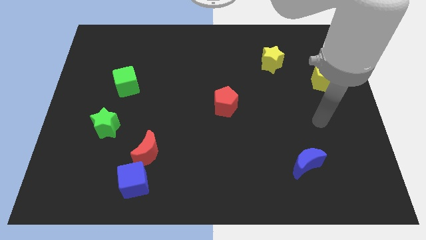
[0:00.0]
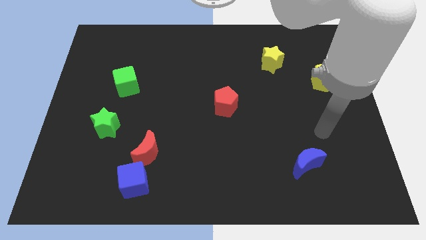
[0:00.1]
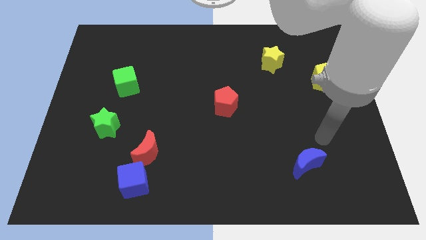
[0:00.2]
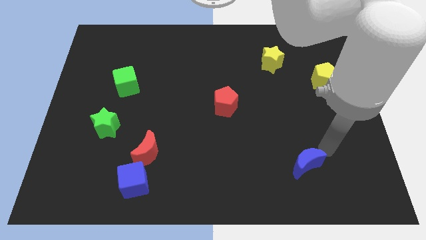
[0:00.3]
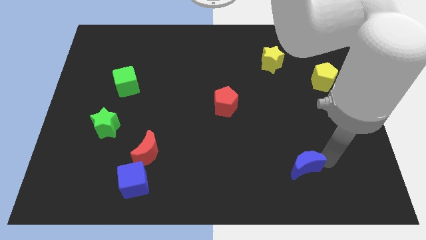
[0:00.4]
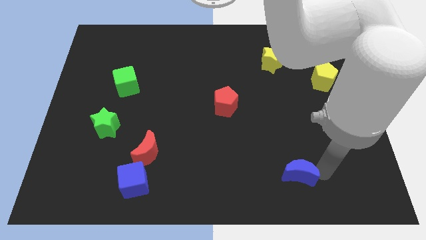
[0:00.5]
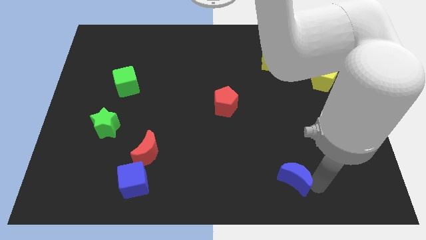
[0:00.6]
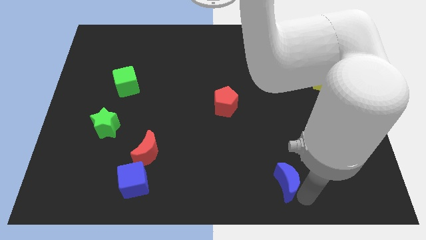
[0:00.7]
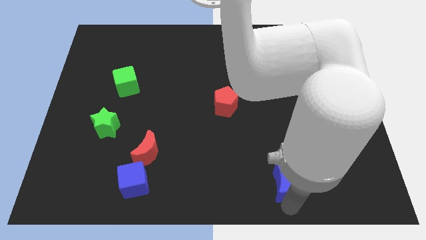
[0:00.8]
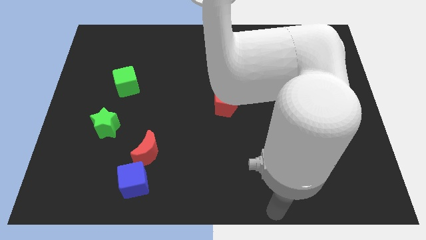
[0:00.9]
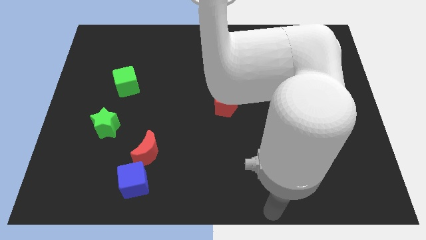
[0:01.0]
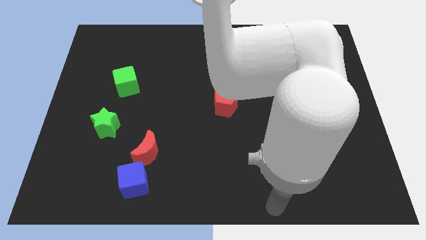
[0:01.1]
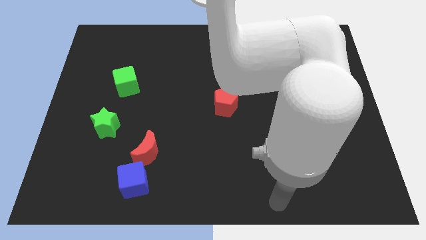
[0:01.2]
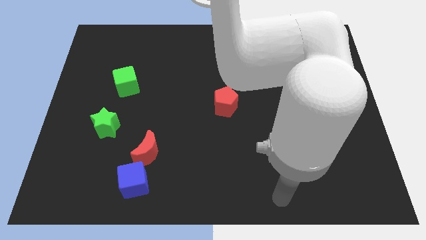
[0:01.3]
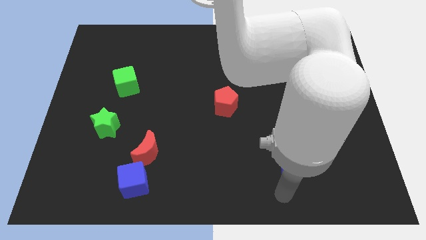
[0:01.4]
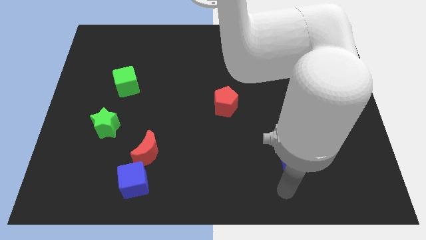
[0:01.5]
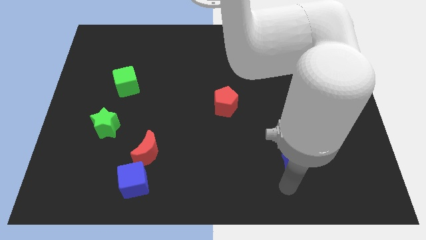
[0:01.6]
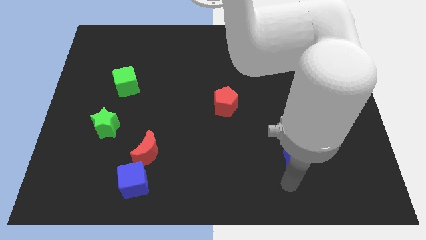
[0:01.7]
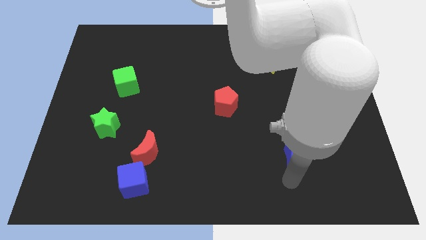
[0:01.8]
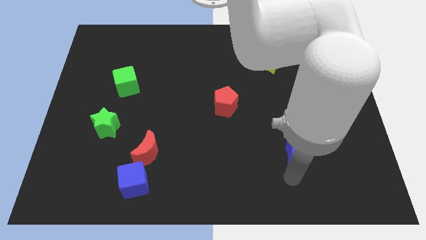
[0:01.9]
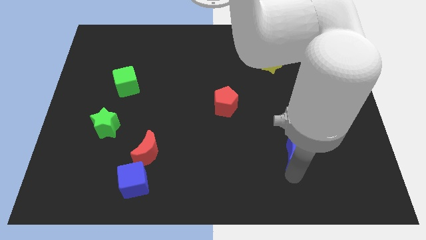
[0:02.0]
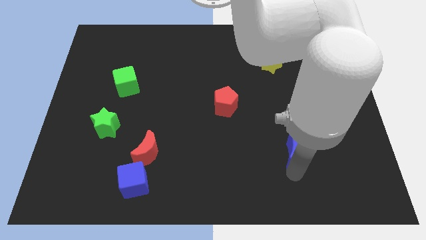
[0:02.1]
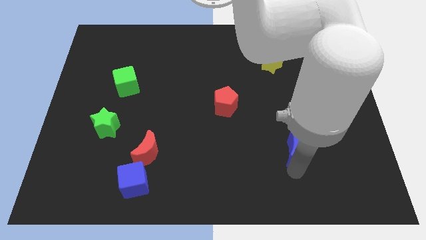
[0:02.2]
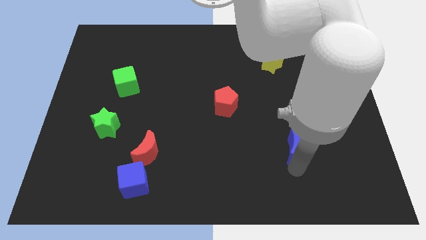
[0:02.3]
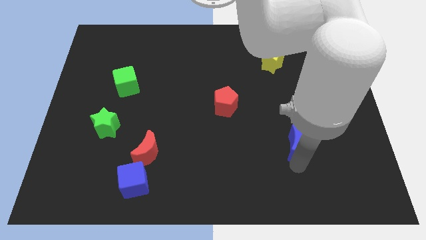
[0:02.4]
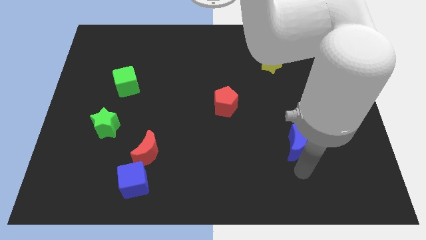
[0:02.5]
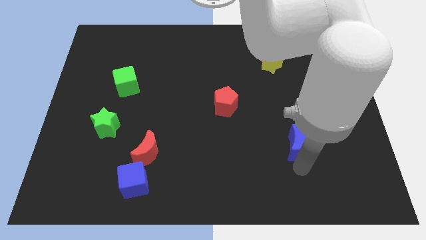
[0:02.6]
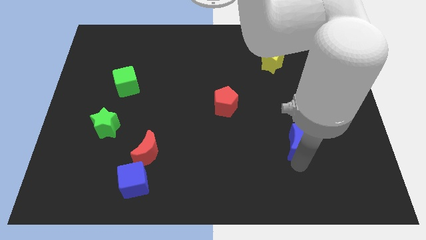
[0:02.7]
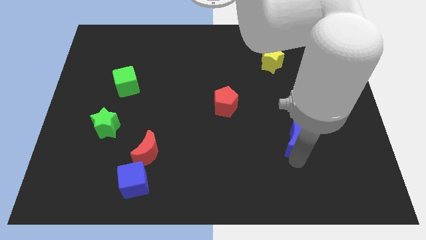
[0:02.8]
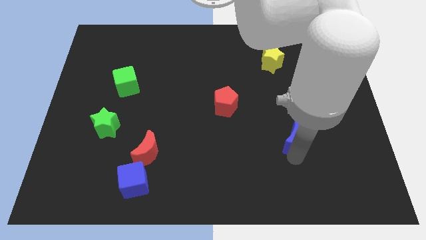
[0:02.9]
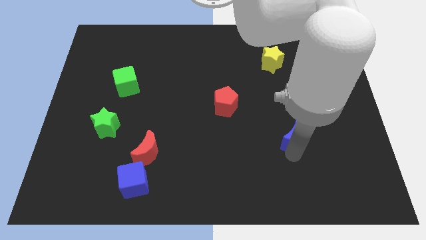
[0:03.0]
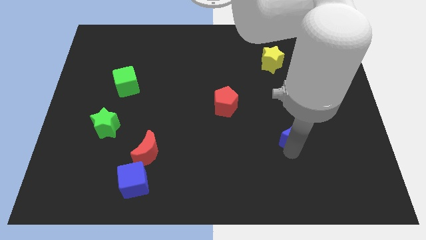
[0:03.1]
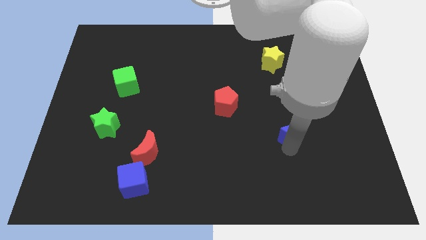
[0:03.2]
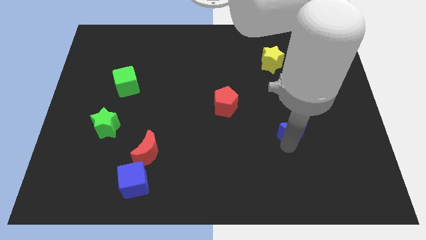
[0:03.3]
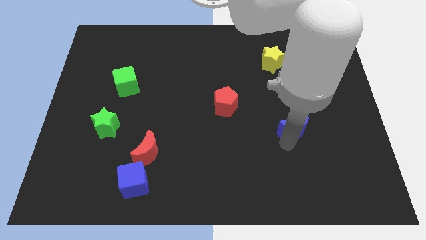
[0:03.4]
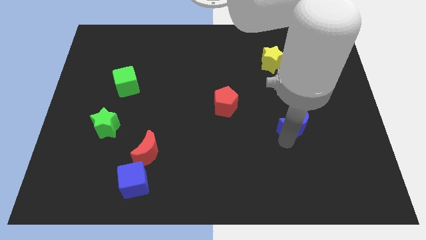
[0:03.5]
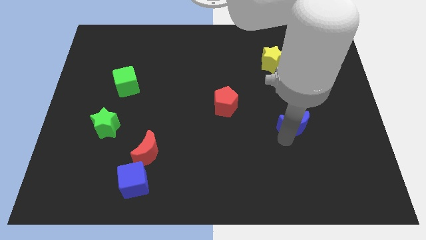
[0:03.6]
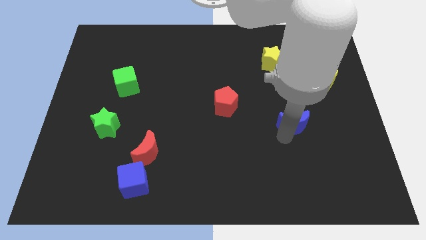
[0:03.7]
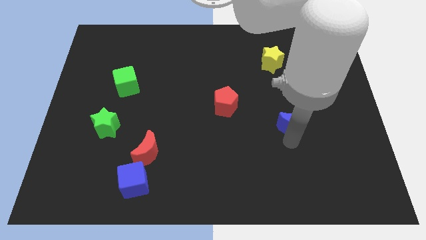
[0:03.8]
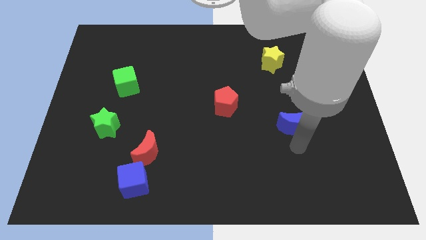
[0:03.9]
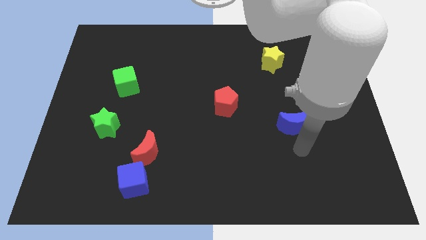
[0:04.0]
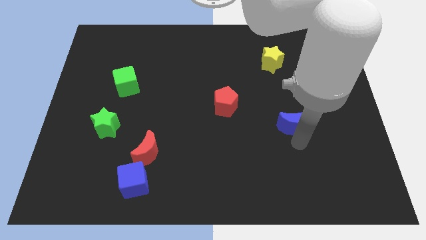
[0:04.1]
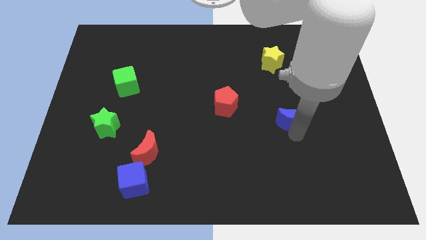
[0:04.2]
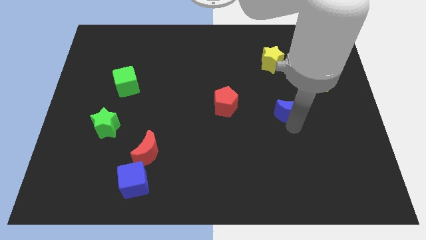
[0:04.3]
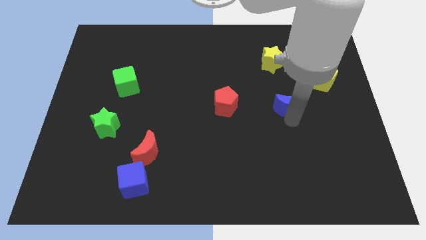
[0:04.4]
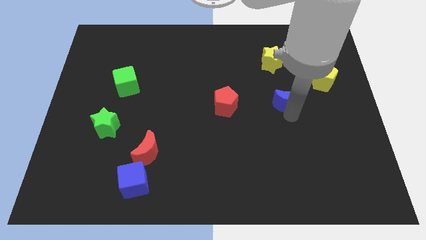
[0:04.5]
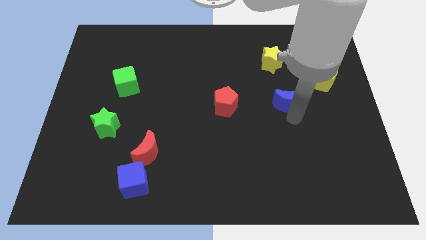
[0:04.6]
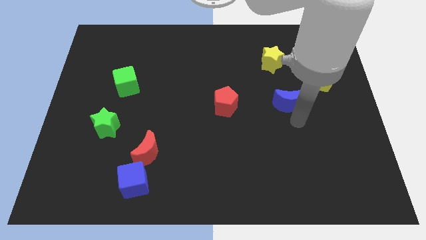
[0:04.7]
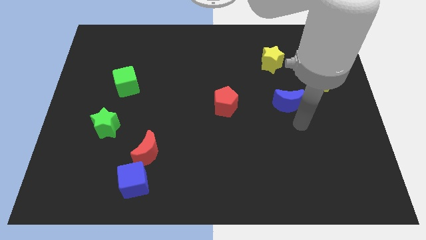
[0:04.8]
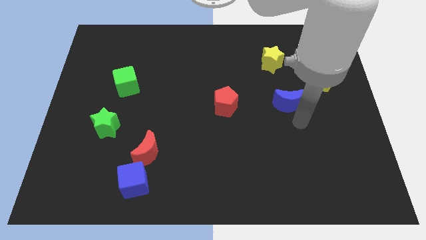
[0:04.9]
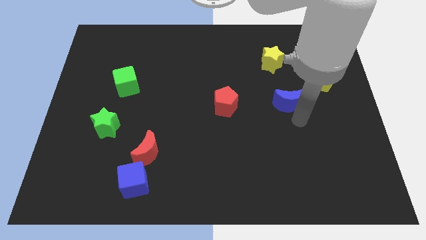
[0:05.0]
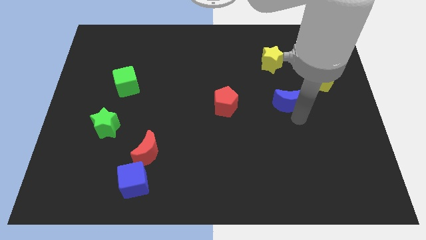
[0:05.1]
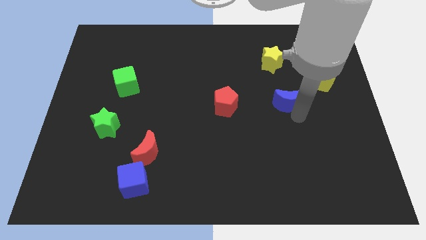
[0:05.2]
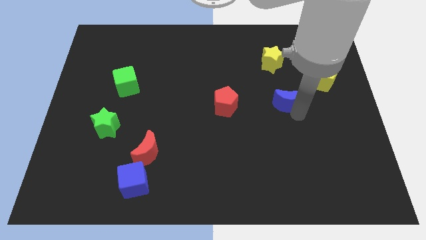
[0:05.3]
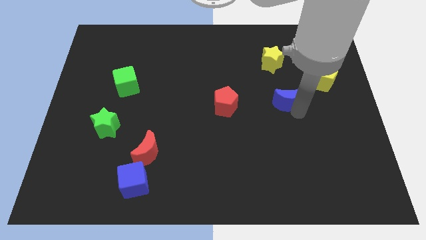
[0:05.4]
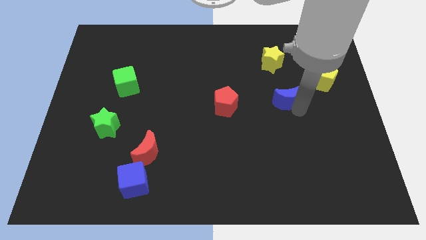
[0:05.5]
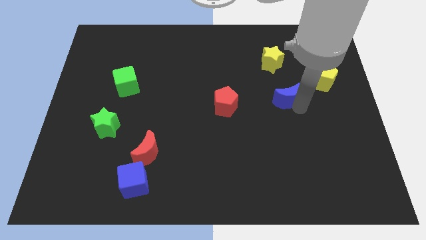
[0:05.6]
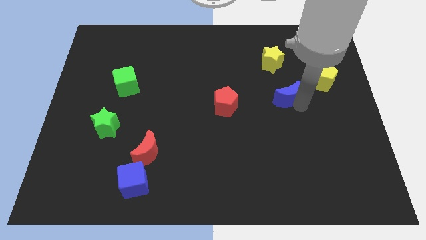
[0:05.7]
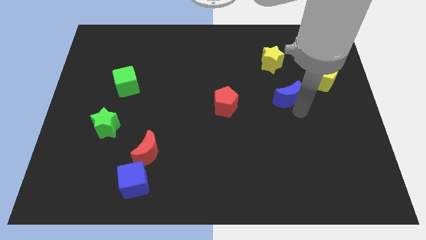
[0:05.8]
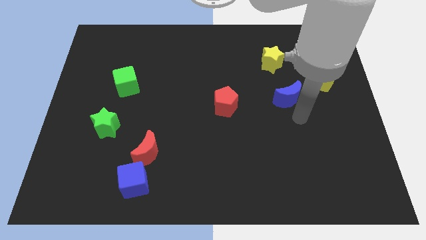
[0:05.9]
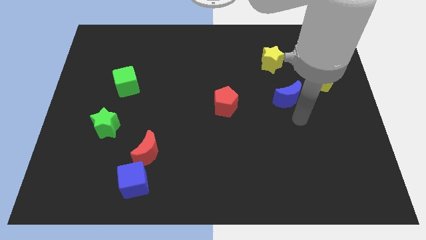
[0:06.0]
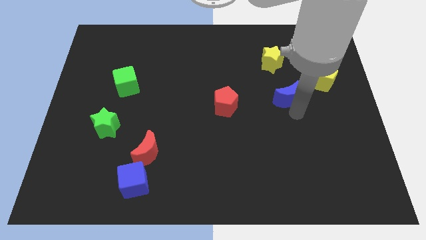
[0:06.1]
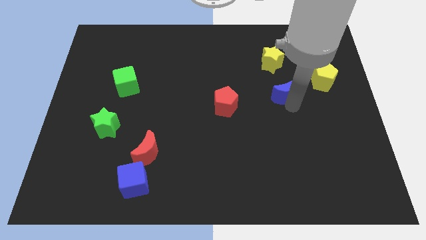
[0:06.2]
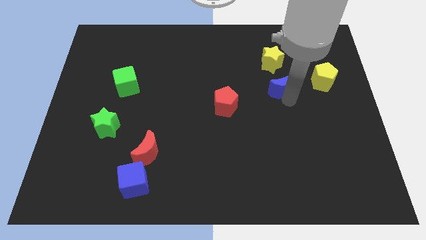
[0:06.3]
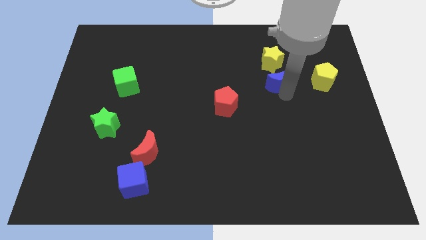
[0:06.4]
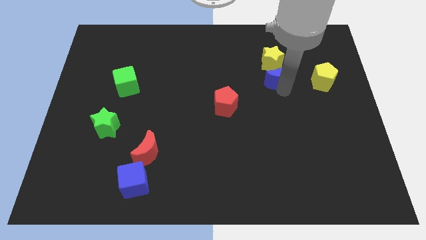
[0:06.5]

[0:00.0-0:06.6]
push the blue moon next to the yellow star
